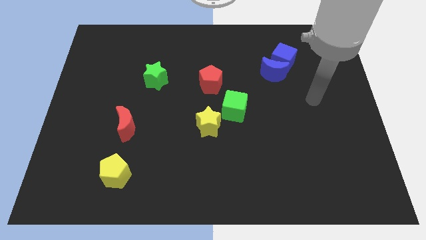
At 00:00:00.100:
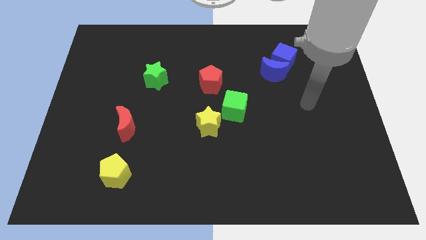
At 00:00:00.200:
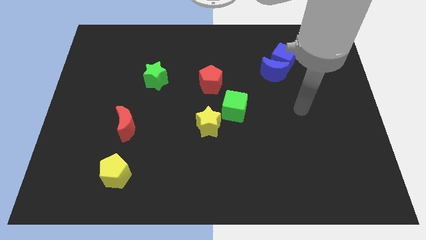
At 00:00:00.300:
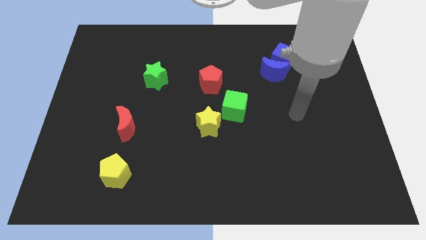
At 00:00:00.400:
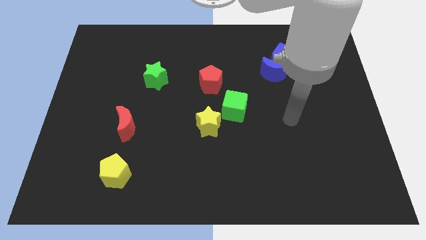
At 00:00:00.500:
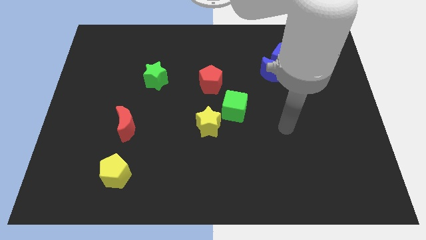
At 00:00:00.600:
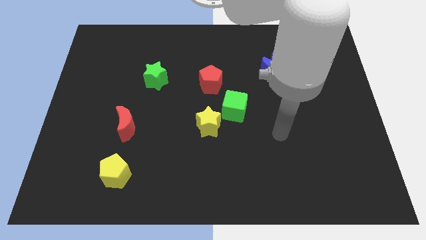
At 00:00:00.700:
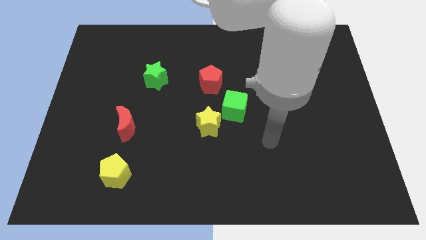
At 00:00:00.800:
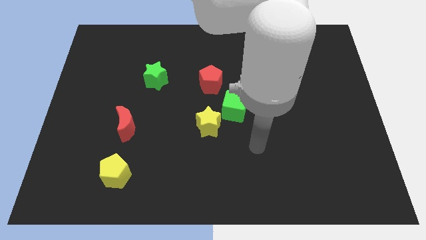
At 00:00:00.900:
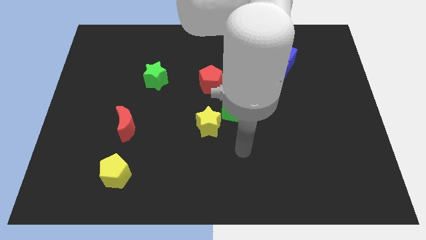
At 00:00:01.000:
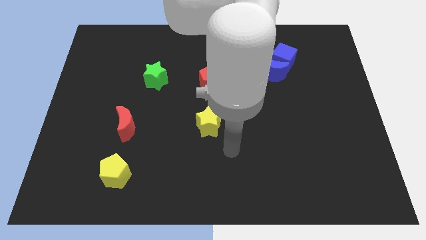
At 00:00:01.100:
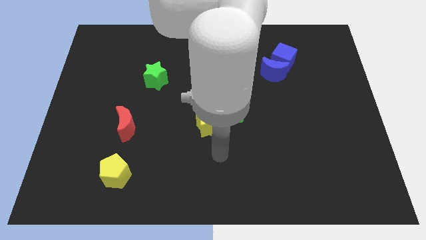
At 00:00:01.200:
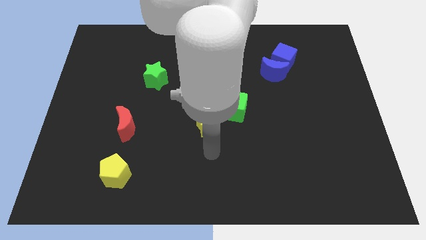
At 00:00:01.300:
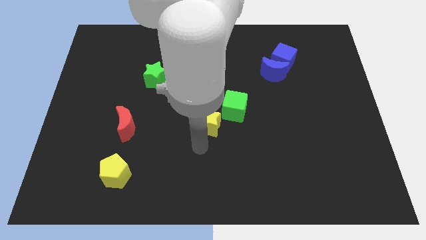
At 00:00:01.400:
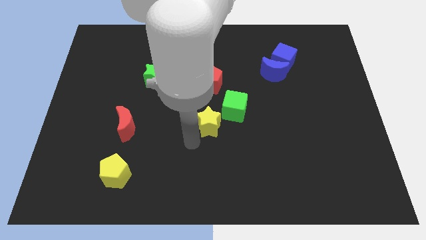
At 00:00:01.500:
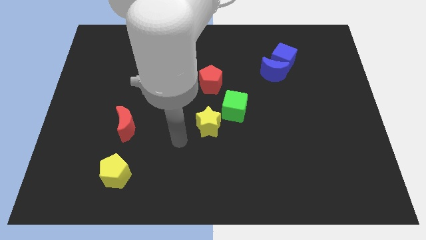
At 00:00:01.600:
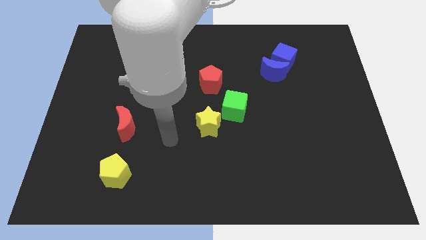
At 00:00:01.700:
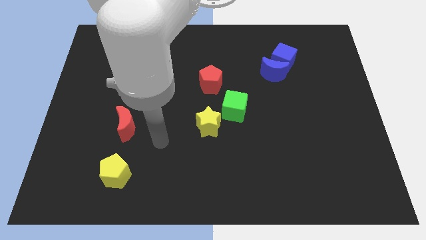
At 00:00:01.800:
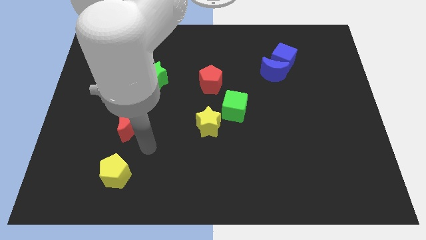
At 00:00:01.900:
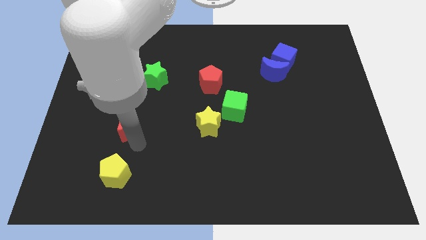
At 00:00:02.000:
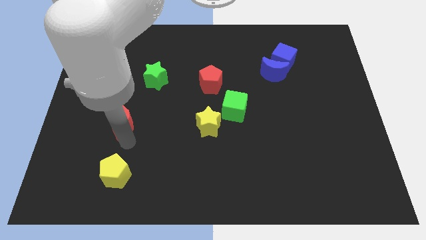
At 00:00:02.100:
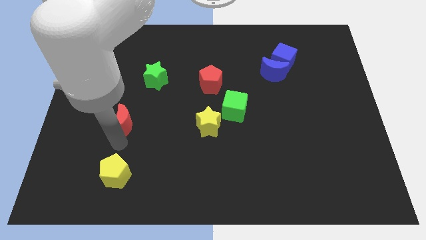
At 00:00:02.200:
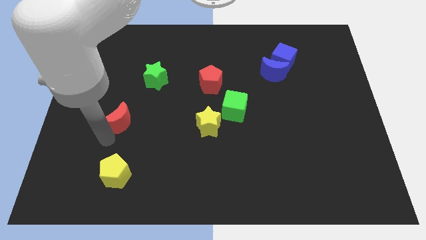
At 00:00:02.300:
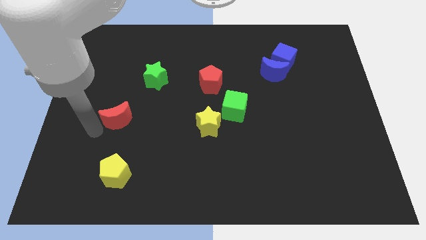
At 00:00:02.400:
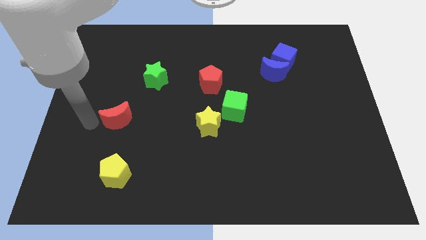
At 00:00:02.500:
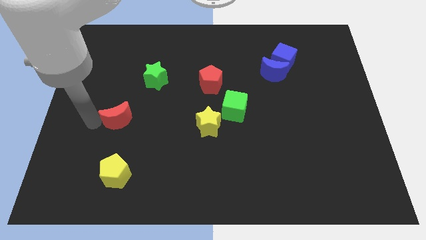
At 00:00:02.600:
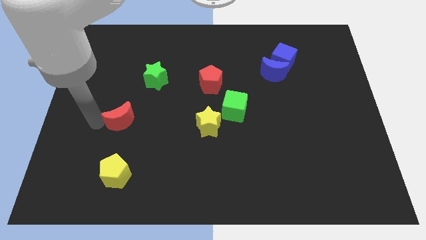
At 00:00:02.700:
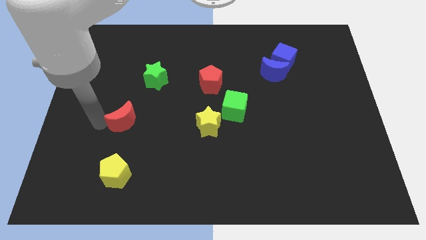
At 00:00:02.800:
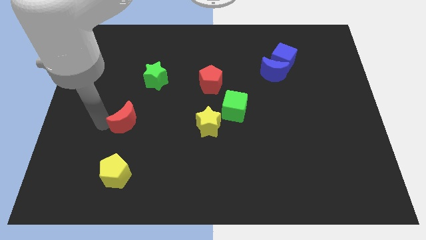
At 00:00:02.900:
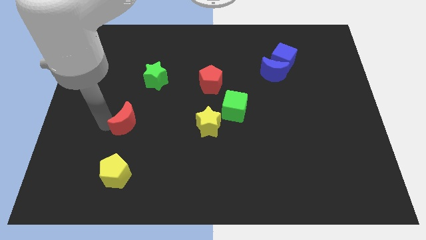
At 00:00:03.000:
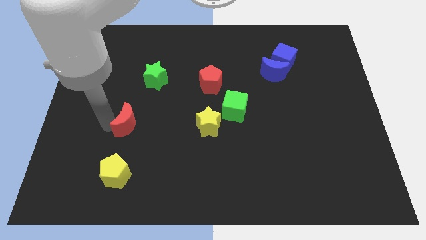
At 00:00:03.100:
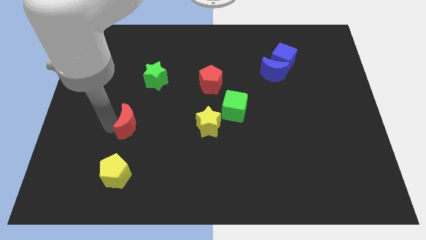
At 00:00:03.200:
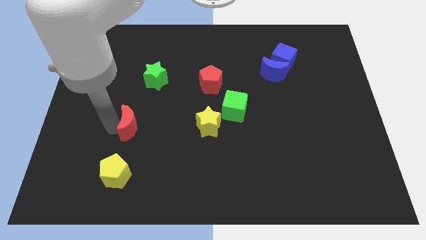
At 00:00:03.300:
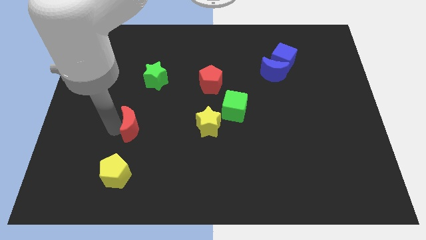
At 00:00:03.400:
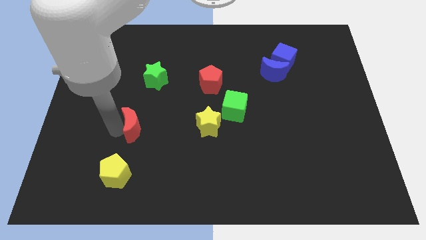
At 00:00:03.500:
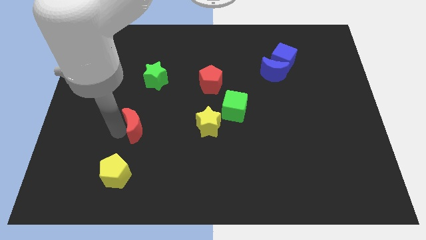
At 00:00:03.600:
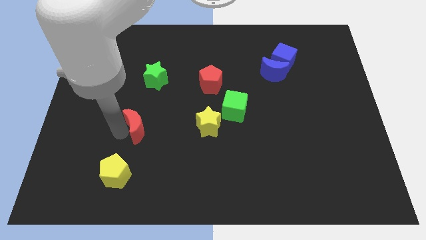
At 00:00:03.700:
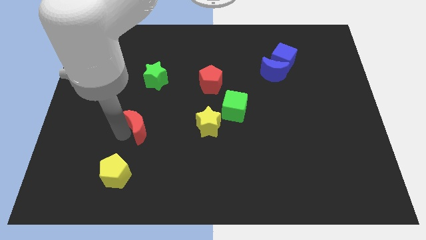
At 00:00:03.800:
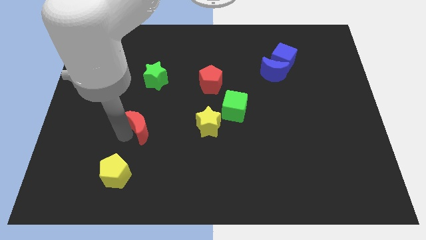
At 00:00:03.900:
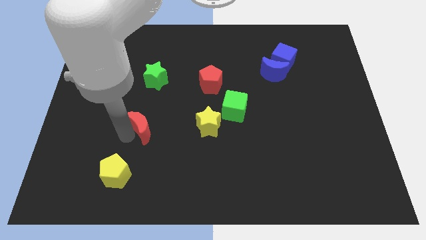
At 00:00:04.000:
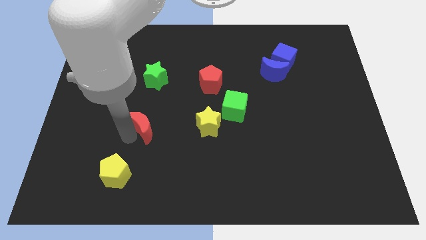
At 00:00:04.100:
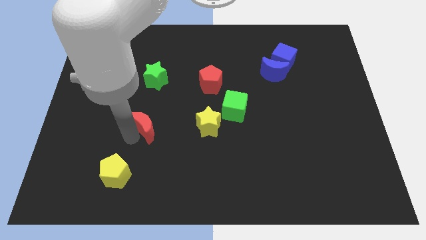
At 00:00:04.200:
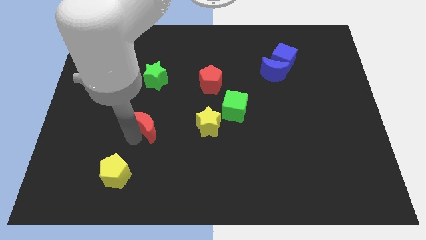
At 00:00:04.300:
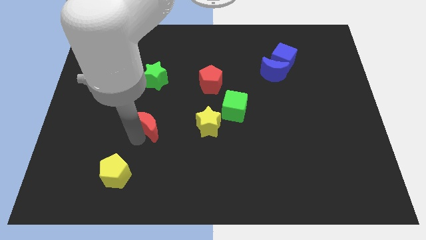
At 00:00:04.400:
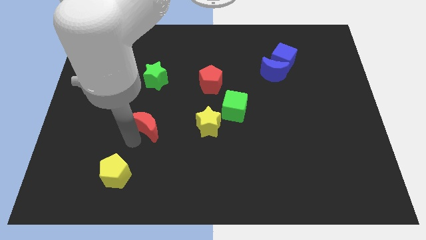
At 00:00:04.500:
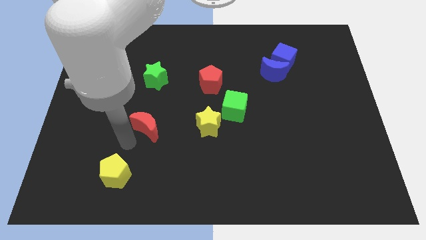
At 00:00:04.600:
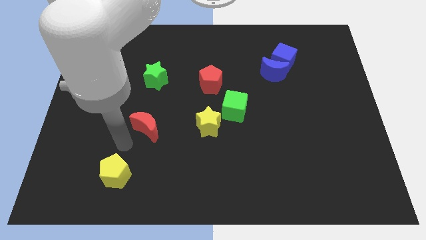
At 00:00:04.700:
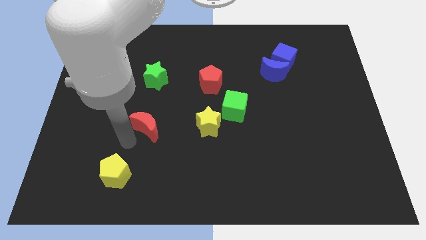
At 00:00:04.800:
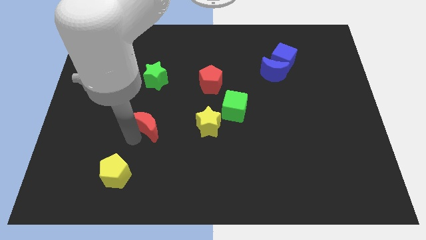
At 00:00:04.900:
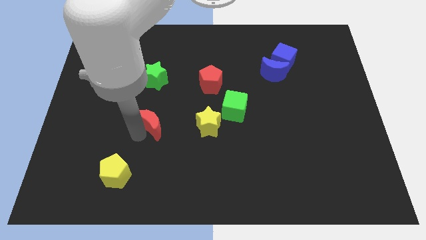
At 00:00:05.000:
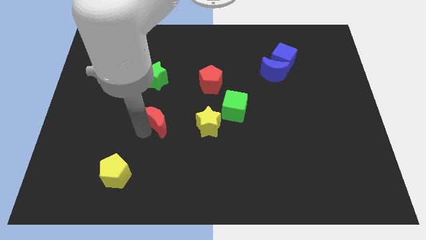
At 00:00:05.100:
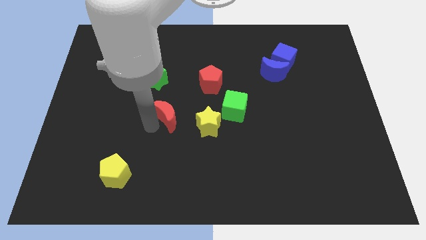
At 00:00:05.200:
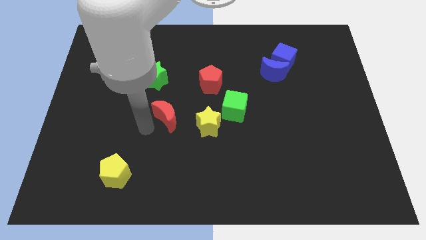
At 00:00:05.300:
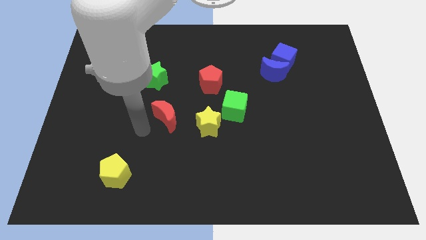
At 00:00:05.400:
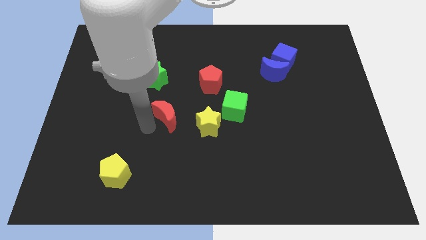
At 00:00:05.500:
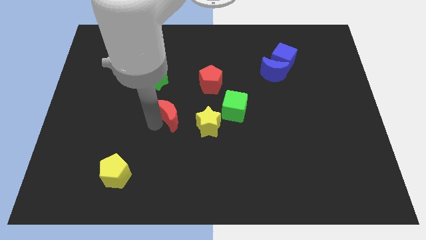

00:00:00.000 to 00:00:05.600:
push the red moon to the top left of the yellow star

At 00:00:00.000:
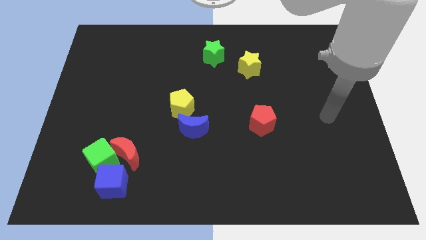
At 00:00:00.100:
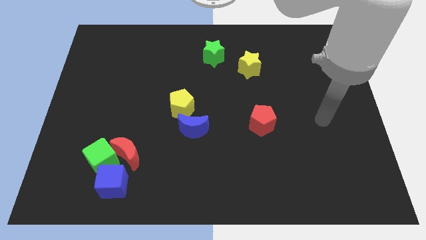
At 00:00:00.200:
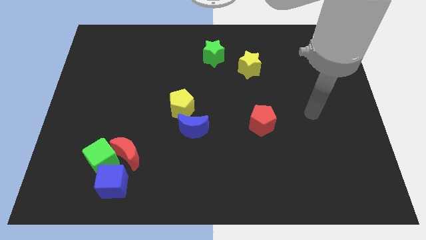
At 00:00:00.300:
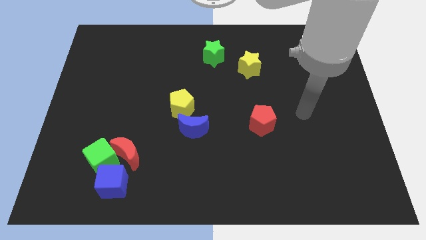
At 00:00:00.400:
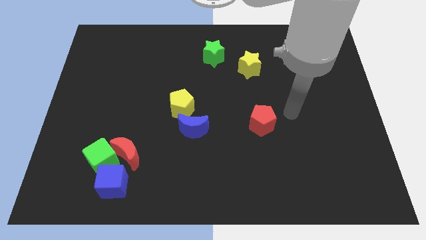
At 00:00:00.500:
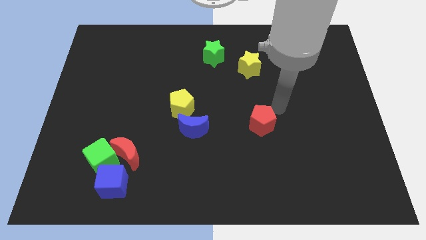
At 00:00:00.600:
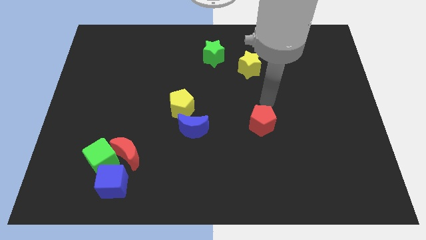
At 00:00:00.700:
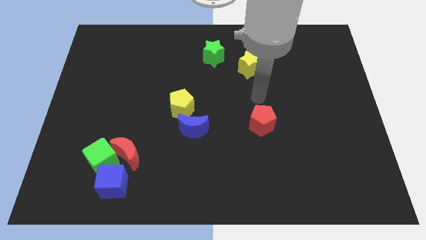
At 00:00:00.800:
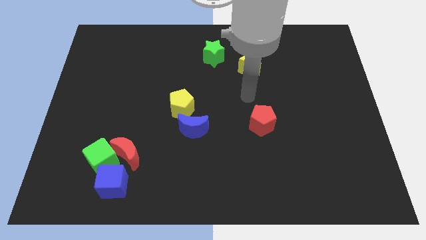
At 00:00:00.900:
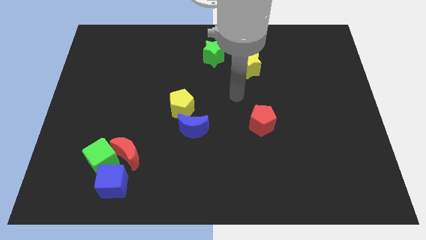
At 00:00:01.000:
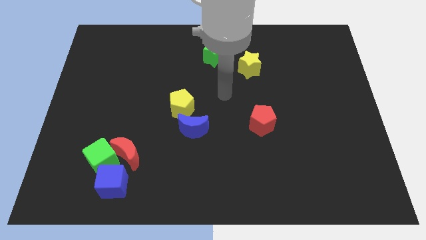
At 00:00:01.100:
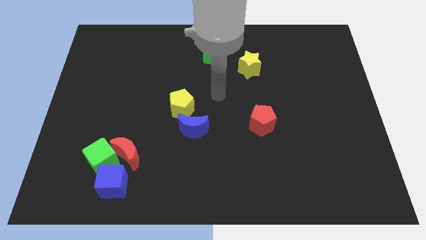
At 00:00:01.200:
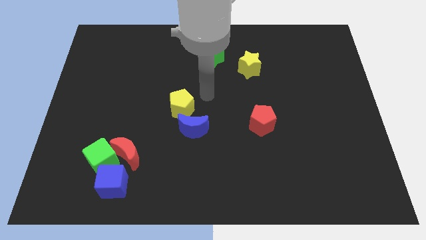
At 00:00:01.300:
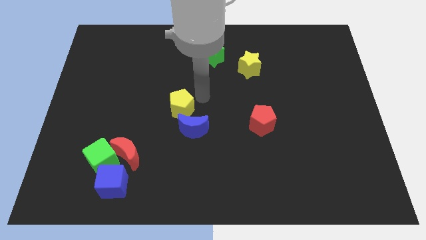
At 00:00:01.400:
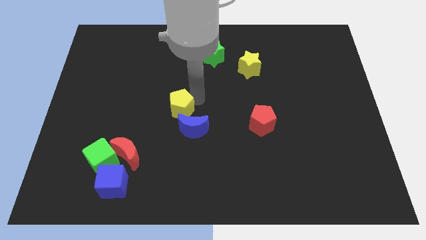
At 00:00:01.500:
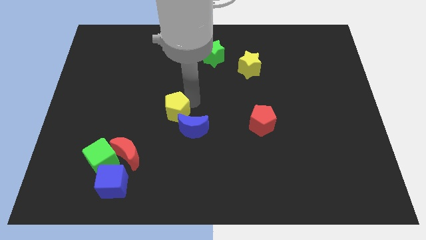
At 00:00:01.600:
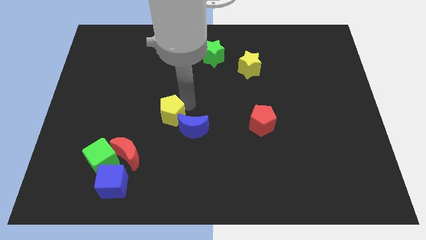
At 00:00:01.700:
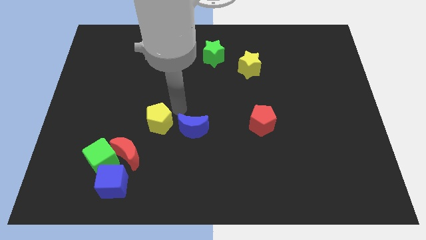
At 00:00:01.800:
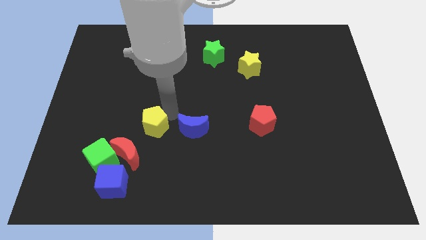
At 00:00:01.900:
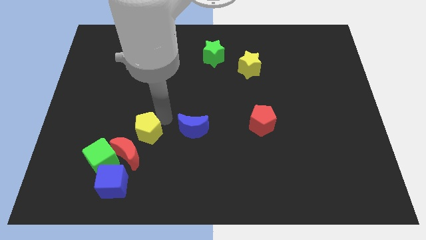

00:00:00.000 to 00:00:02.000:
put the yellow pentagon diagonally up and to the right of the green cube
